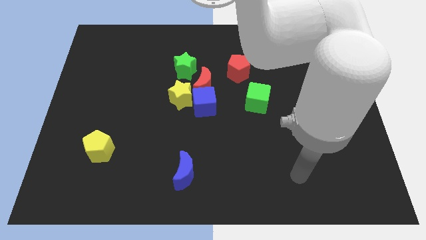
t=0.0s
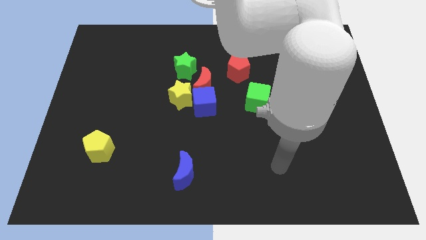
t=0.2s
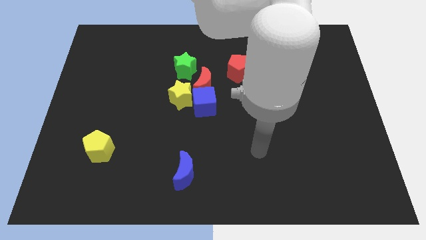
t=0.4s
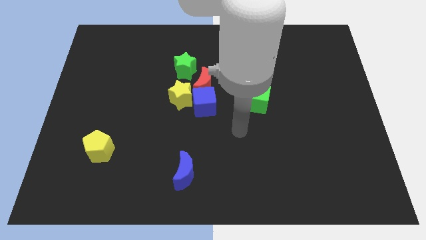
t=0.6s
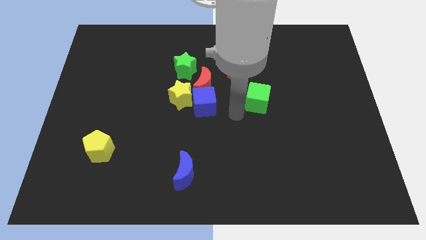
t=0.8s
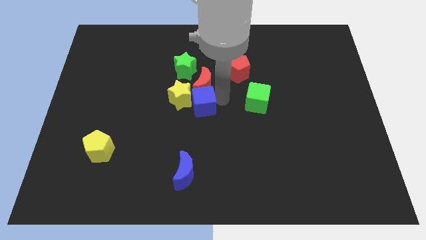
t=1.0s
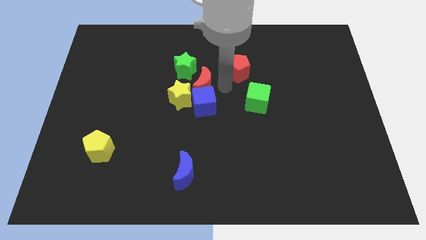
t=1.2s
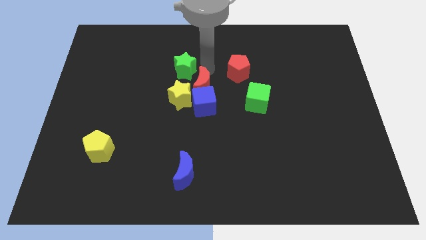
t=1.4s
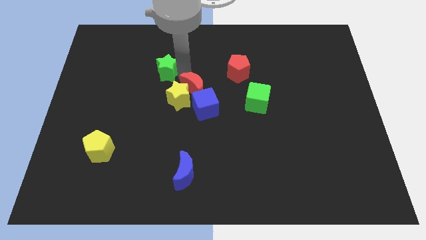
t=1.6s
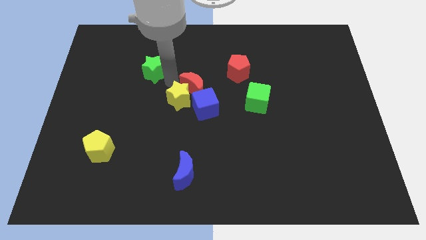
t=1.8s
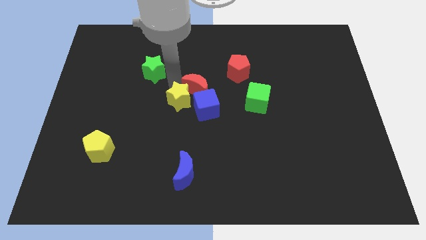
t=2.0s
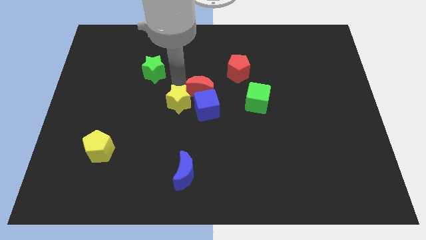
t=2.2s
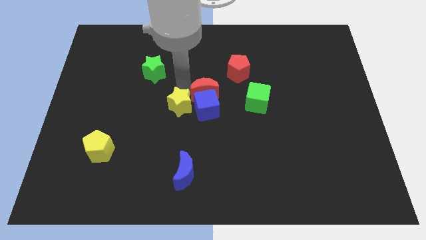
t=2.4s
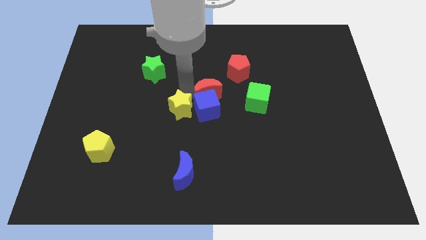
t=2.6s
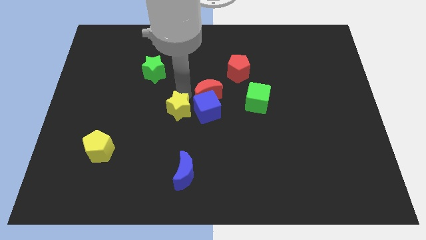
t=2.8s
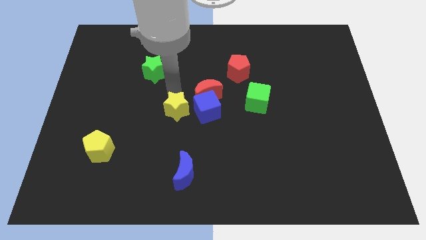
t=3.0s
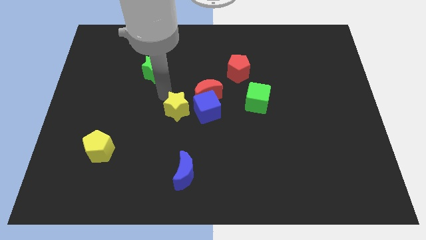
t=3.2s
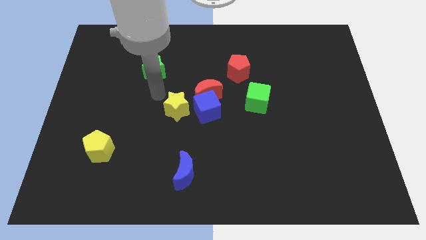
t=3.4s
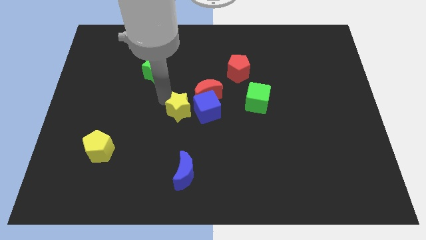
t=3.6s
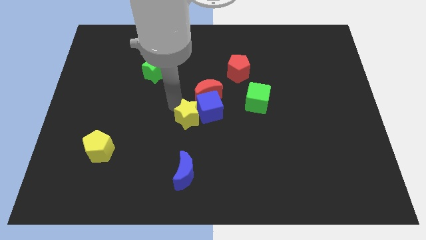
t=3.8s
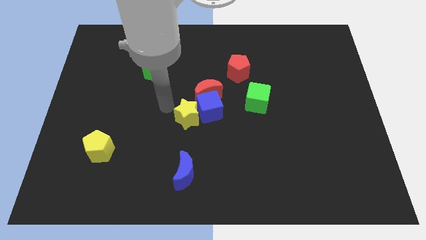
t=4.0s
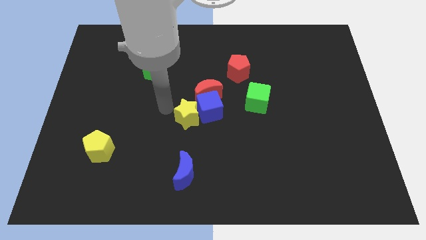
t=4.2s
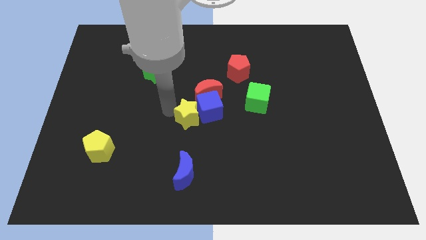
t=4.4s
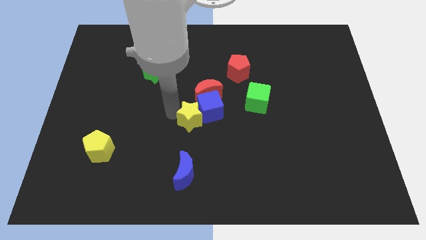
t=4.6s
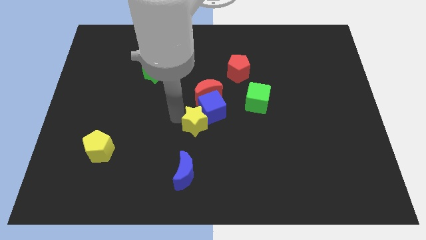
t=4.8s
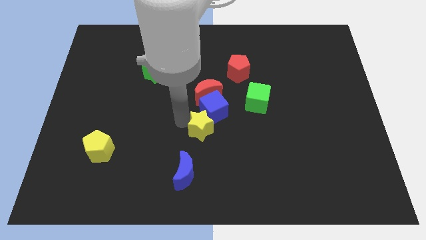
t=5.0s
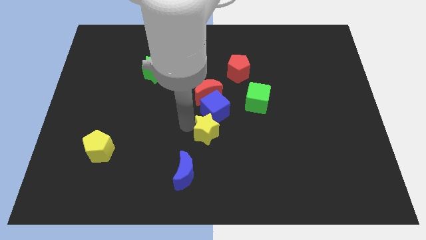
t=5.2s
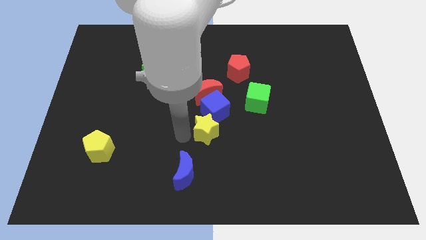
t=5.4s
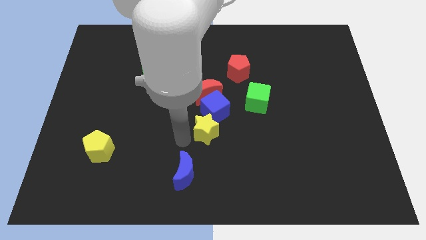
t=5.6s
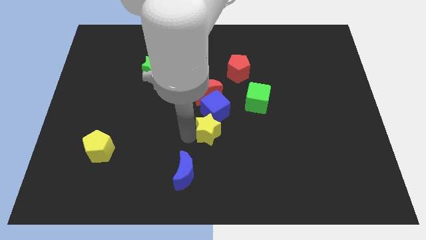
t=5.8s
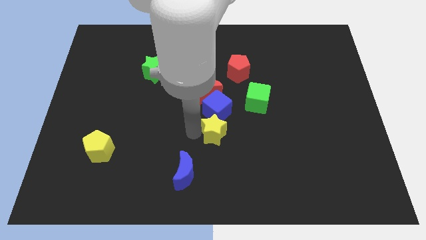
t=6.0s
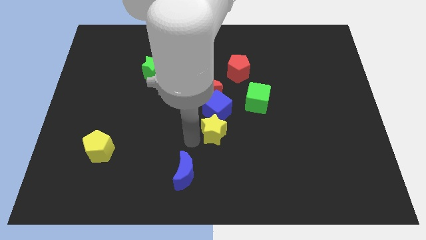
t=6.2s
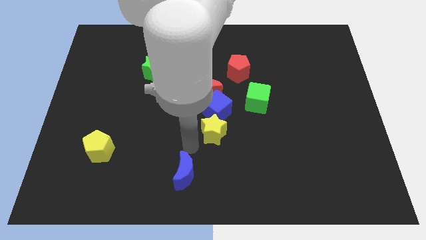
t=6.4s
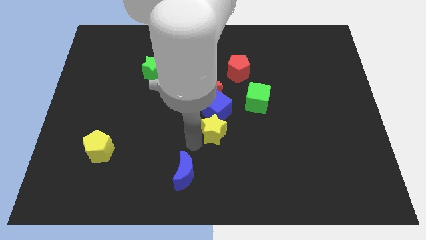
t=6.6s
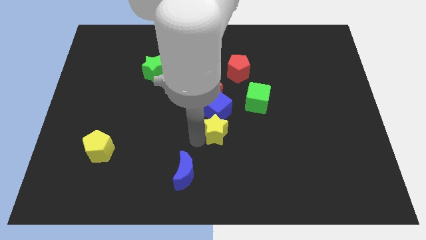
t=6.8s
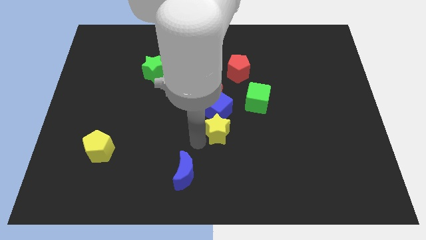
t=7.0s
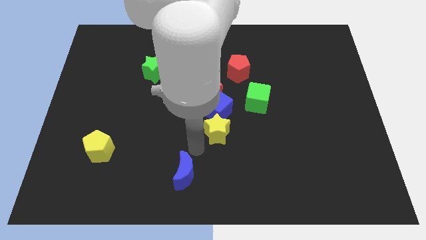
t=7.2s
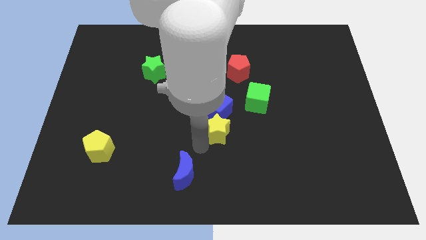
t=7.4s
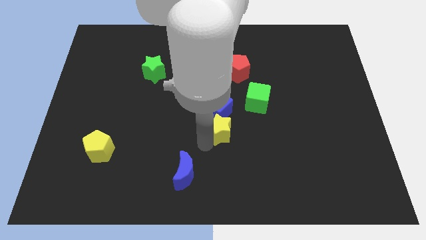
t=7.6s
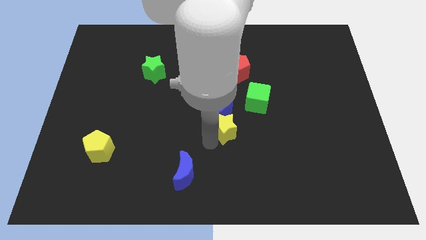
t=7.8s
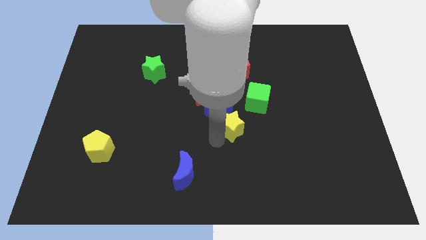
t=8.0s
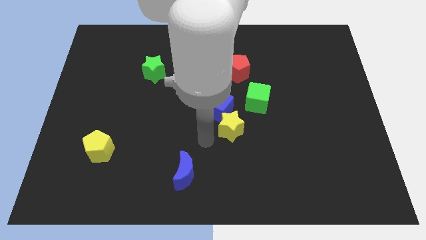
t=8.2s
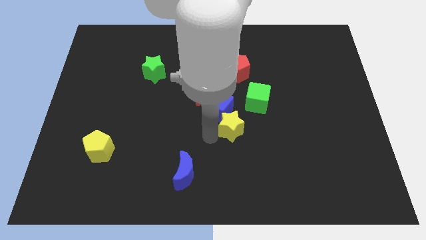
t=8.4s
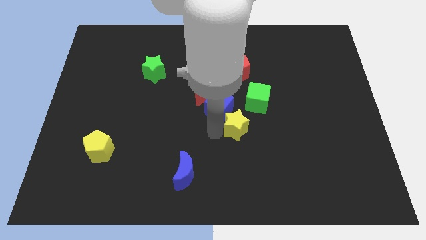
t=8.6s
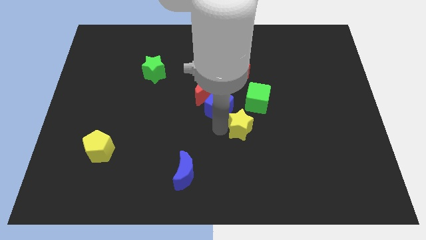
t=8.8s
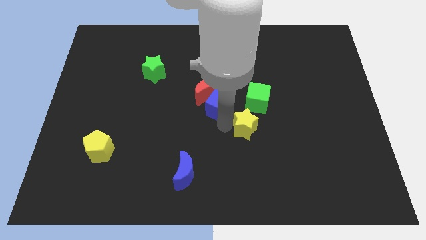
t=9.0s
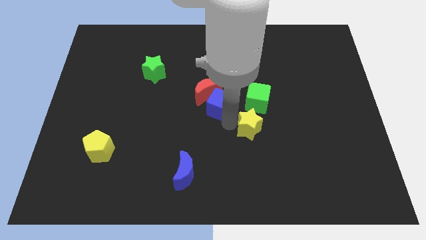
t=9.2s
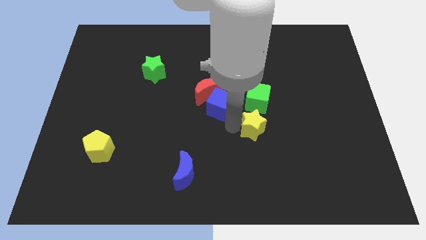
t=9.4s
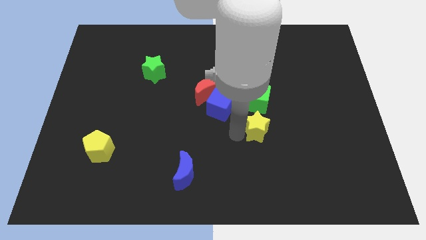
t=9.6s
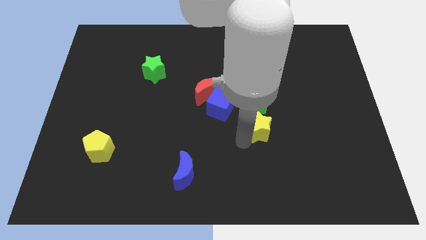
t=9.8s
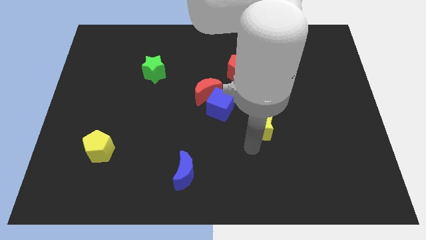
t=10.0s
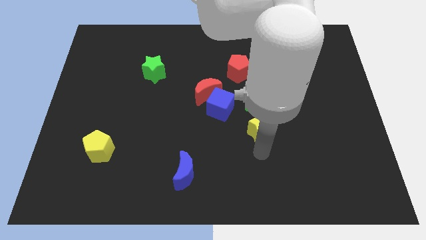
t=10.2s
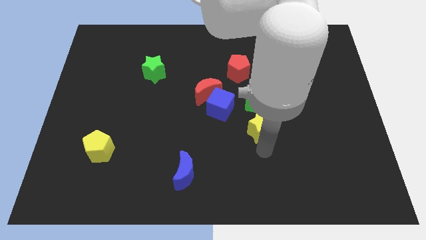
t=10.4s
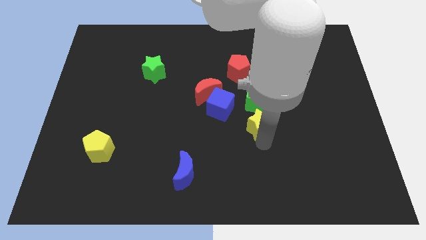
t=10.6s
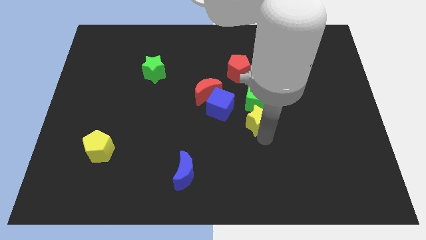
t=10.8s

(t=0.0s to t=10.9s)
push the yellow star to the bottom right side of the green cube

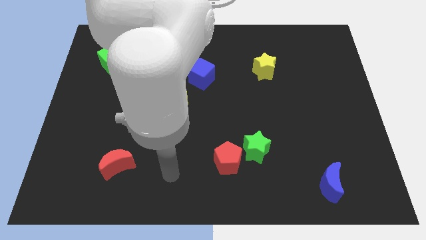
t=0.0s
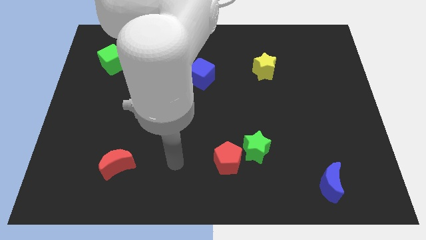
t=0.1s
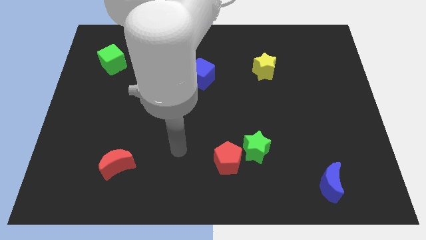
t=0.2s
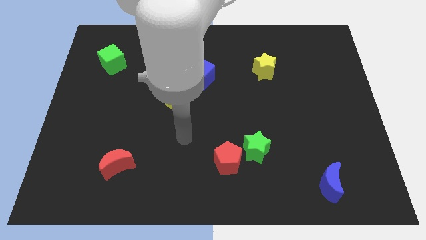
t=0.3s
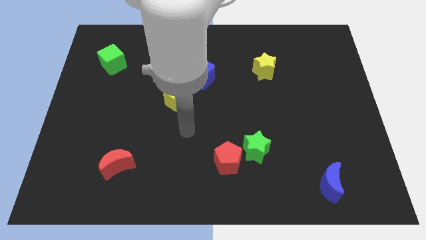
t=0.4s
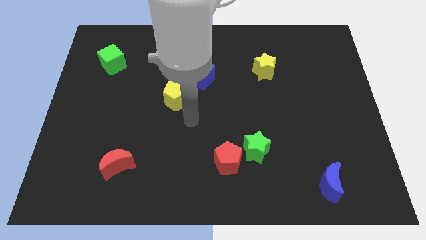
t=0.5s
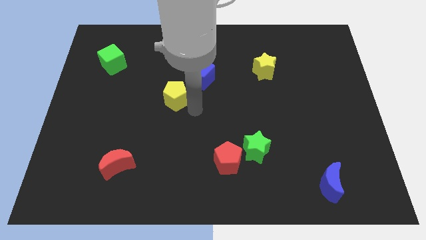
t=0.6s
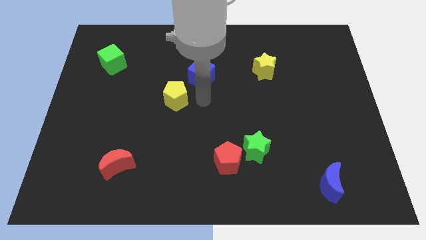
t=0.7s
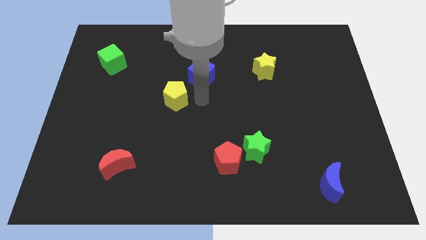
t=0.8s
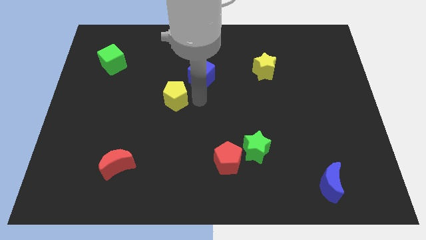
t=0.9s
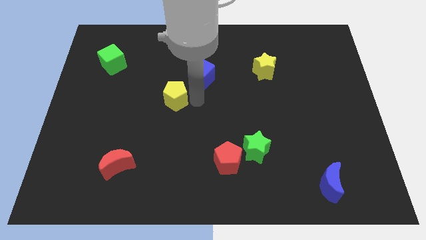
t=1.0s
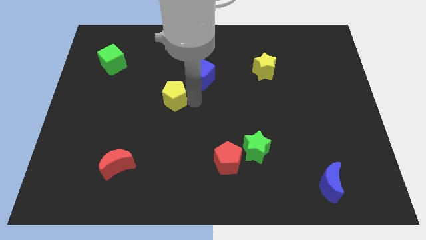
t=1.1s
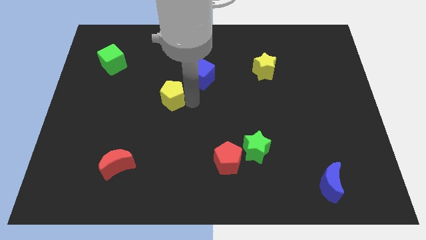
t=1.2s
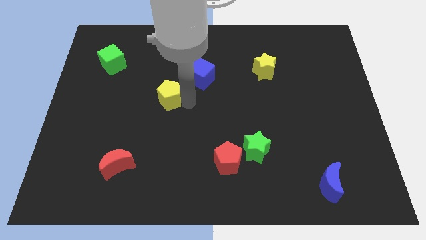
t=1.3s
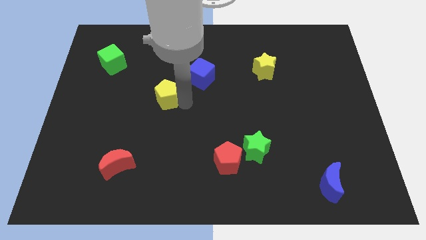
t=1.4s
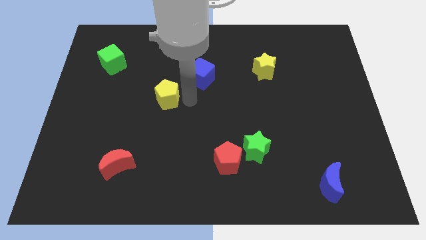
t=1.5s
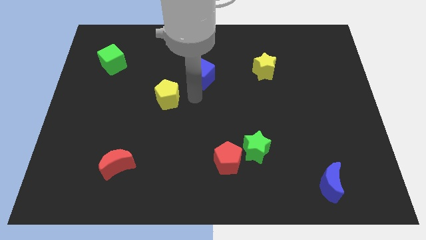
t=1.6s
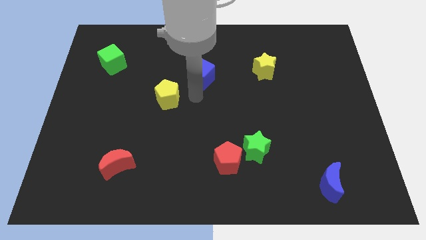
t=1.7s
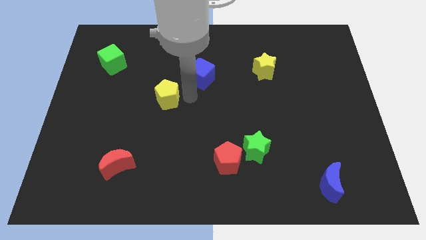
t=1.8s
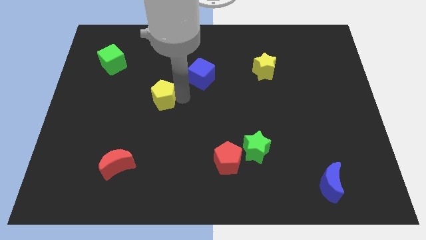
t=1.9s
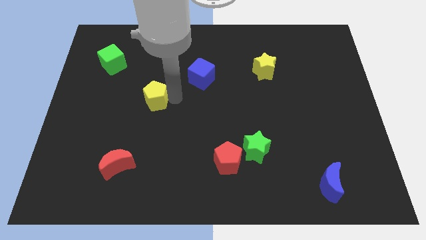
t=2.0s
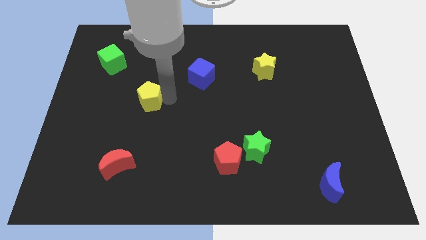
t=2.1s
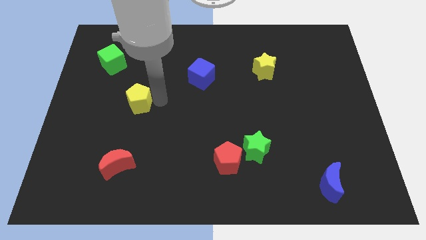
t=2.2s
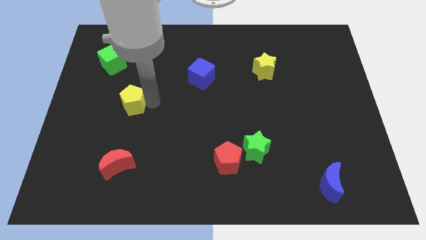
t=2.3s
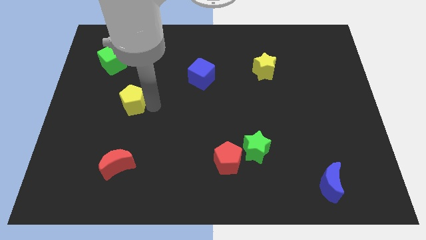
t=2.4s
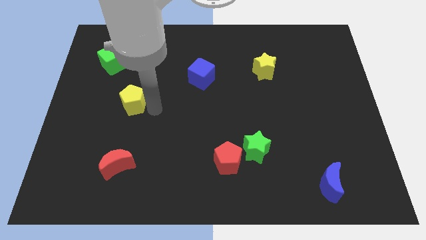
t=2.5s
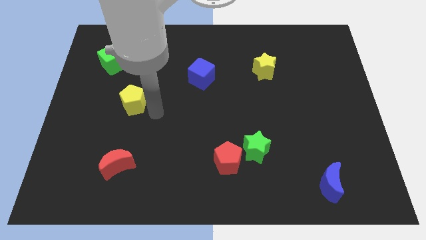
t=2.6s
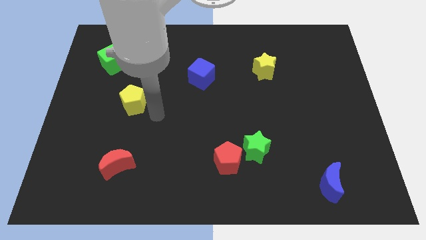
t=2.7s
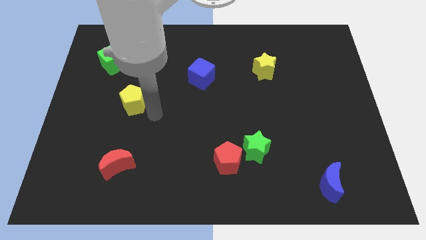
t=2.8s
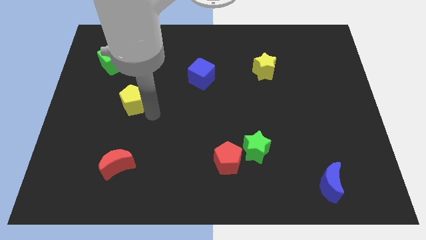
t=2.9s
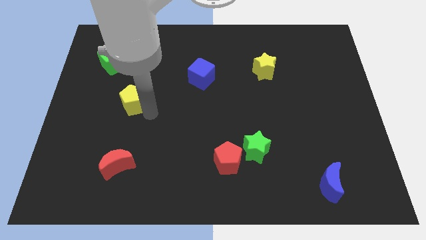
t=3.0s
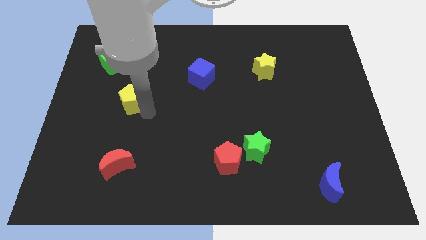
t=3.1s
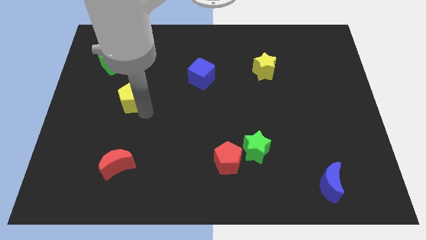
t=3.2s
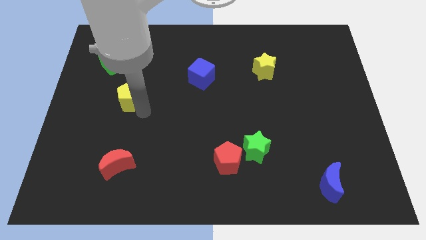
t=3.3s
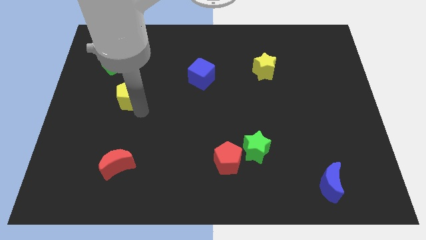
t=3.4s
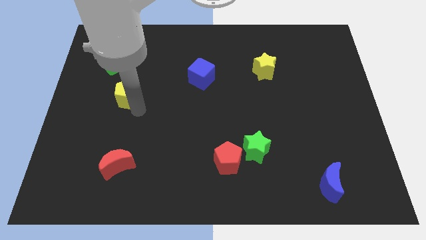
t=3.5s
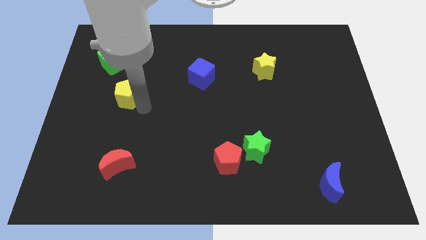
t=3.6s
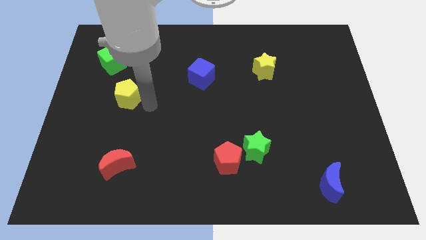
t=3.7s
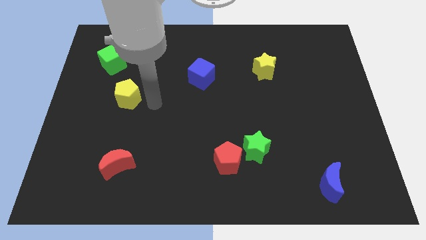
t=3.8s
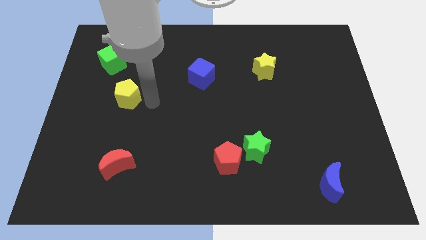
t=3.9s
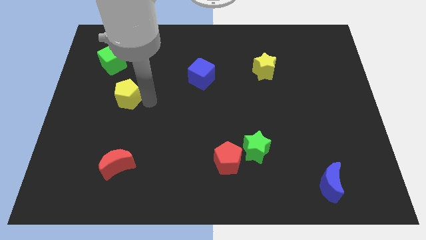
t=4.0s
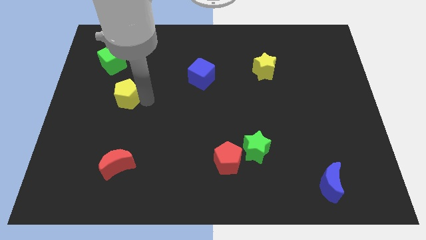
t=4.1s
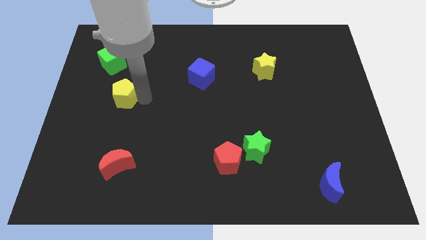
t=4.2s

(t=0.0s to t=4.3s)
put the yellow pentagon to the bottom of the green cube
